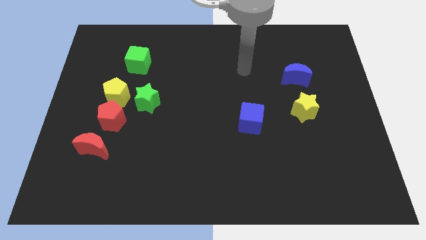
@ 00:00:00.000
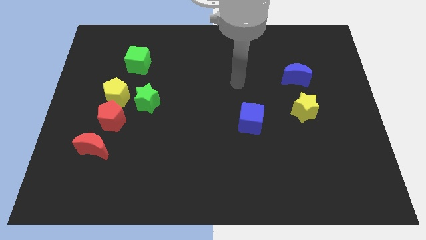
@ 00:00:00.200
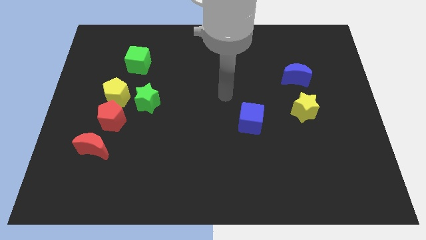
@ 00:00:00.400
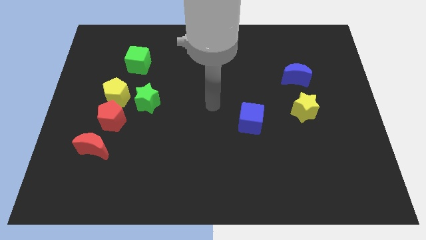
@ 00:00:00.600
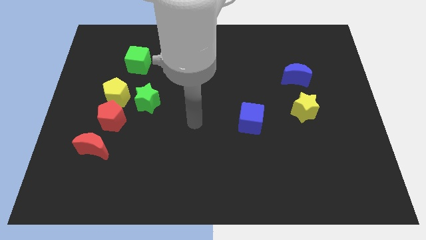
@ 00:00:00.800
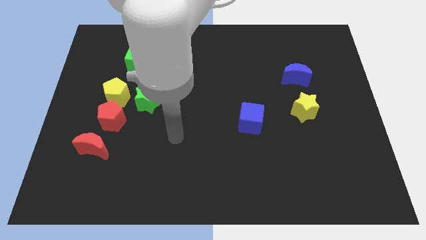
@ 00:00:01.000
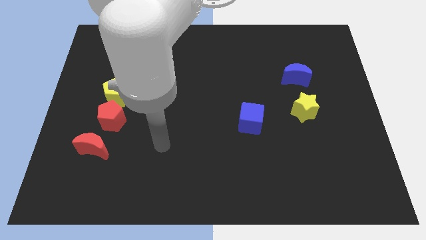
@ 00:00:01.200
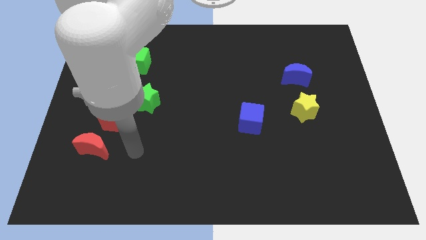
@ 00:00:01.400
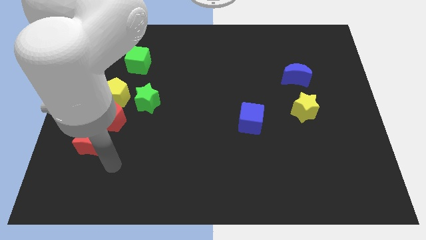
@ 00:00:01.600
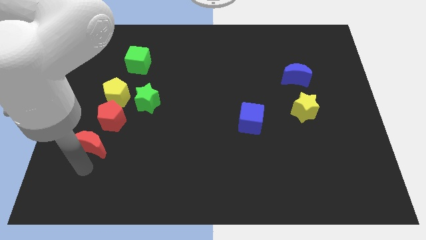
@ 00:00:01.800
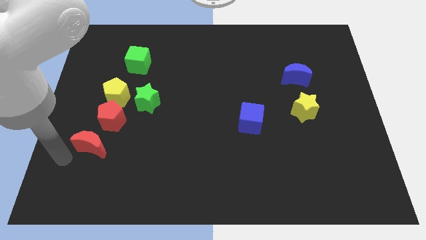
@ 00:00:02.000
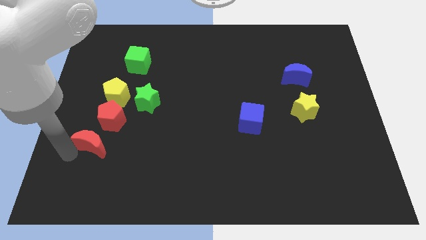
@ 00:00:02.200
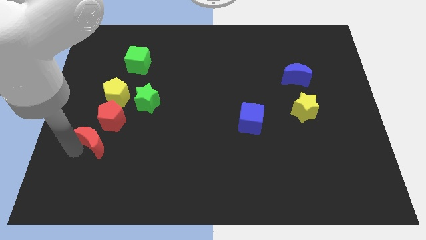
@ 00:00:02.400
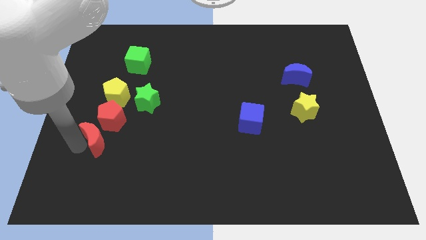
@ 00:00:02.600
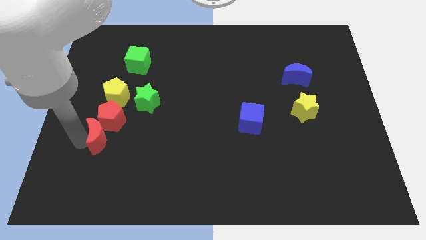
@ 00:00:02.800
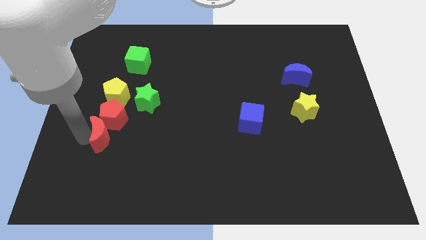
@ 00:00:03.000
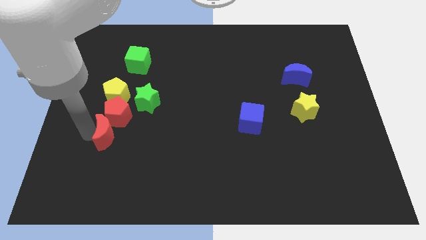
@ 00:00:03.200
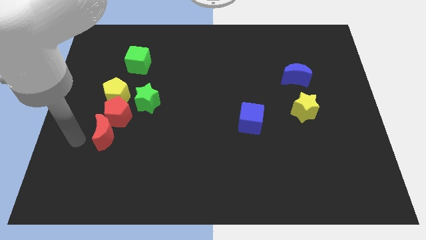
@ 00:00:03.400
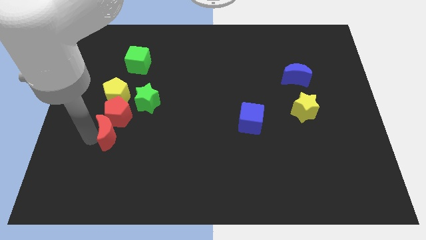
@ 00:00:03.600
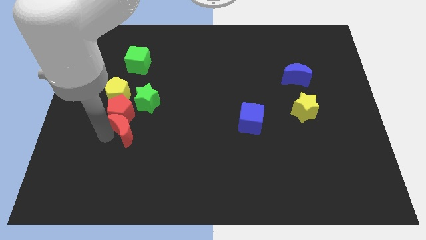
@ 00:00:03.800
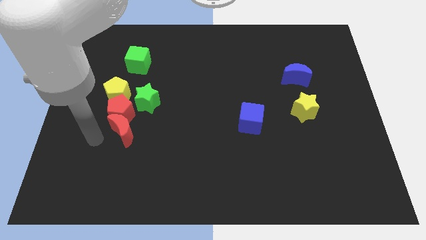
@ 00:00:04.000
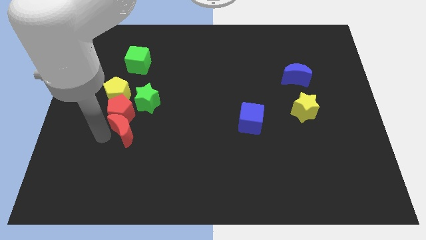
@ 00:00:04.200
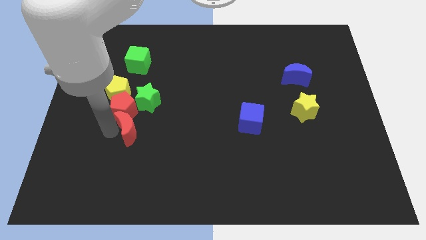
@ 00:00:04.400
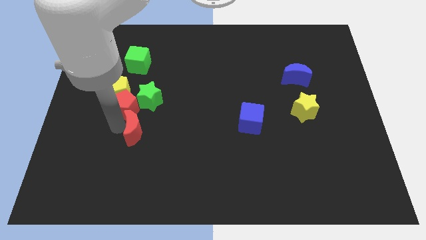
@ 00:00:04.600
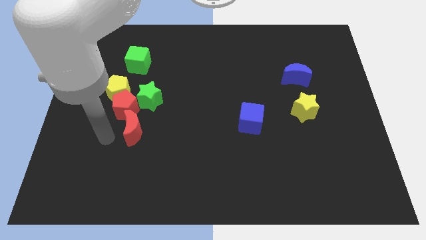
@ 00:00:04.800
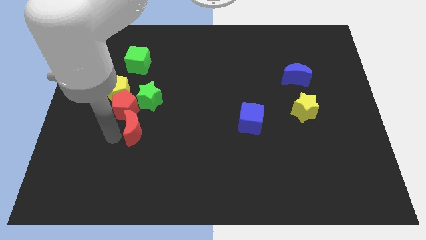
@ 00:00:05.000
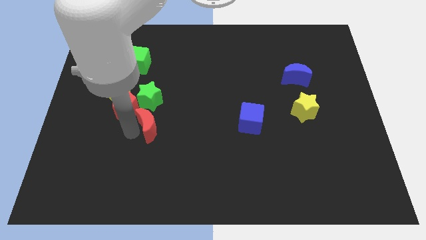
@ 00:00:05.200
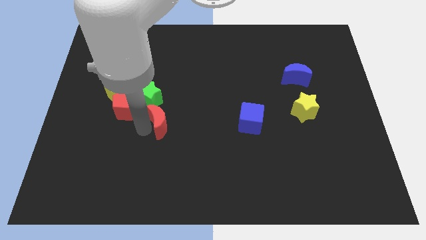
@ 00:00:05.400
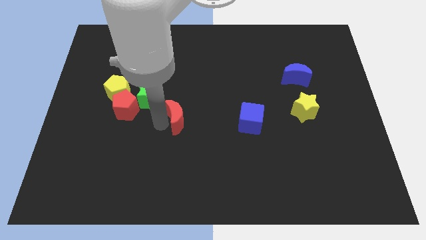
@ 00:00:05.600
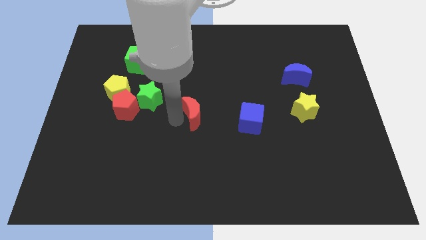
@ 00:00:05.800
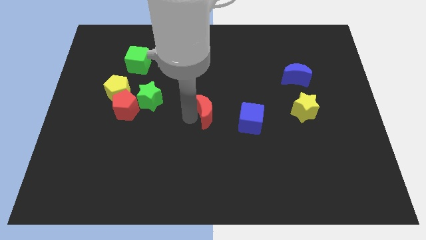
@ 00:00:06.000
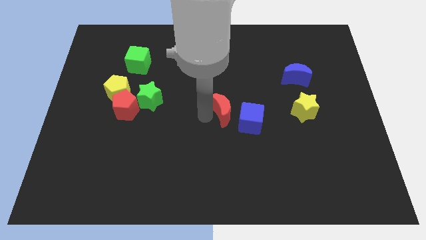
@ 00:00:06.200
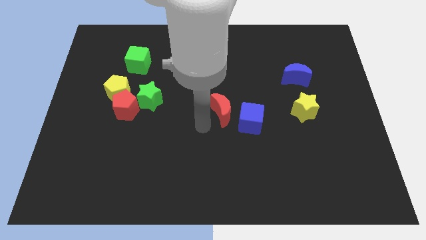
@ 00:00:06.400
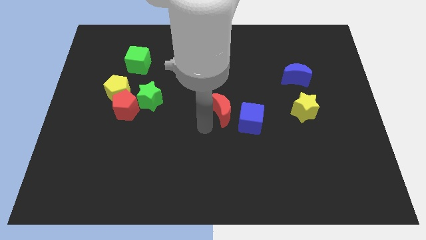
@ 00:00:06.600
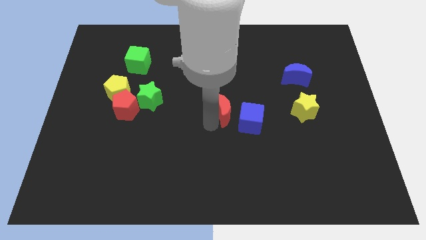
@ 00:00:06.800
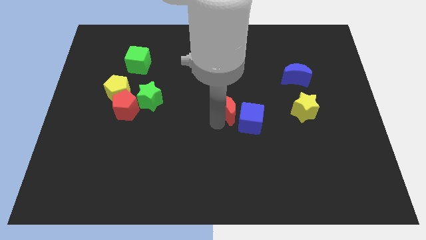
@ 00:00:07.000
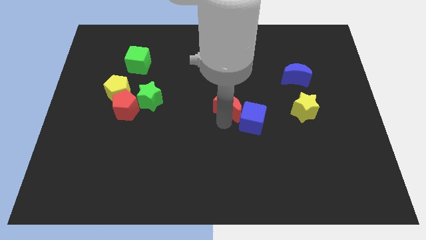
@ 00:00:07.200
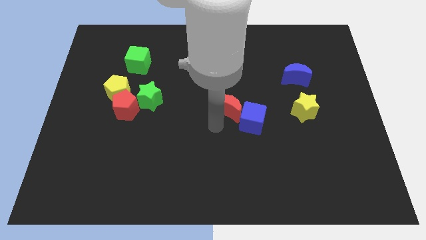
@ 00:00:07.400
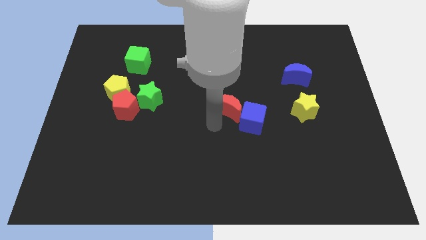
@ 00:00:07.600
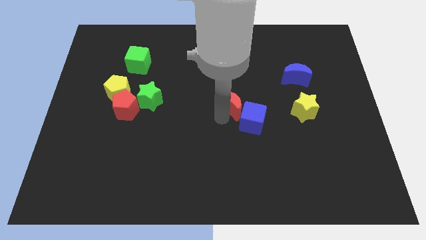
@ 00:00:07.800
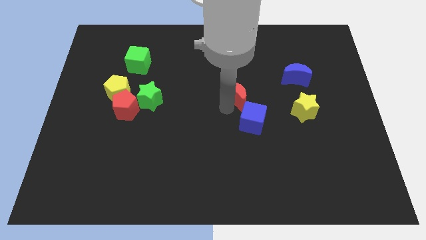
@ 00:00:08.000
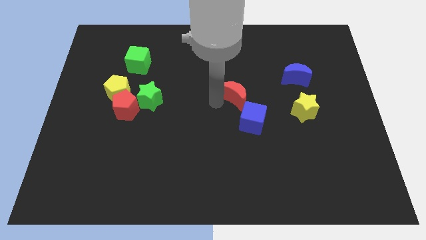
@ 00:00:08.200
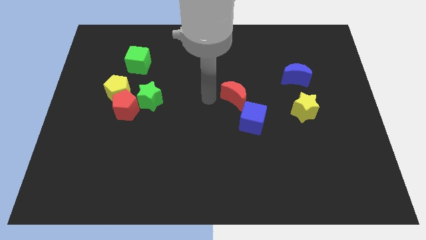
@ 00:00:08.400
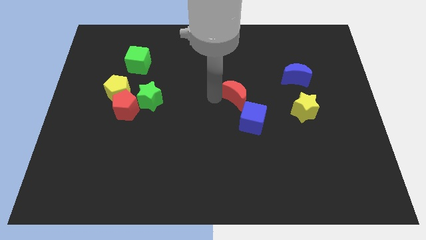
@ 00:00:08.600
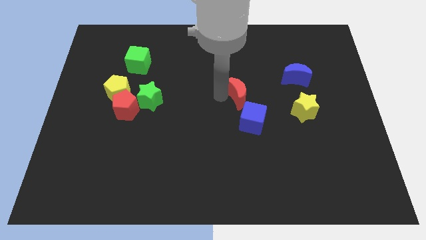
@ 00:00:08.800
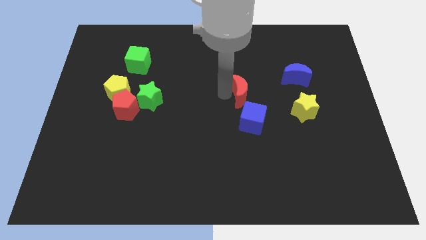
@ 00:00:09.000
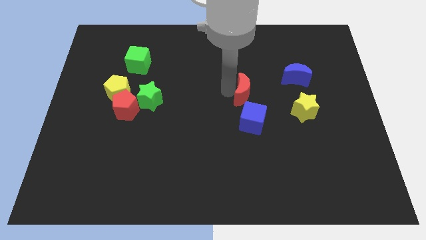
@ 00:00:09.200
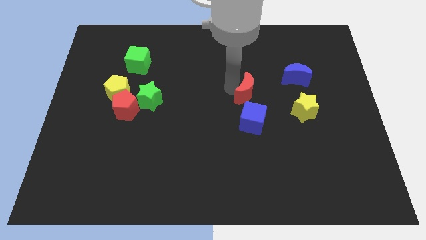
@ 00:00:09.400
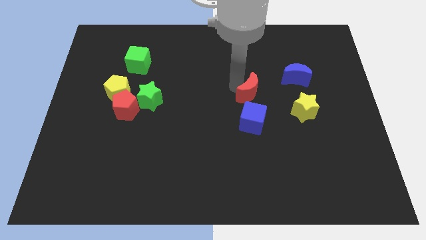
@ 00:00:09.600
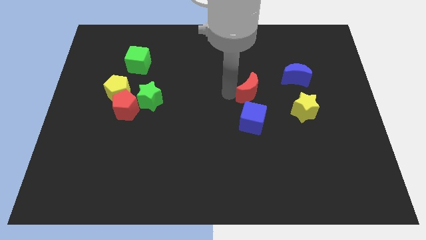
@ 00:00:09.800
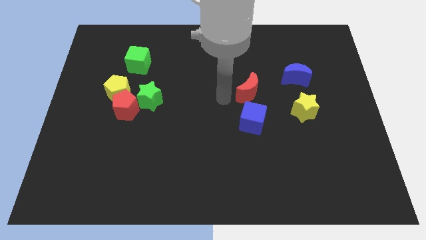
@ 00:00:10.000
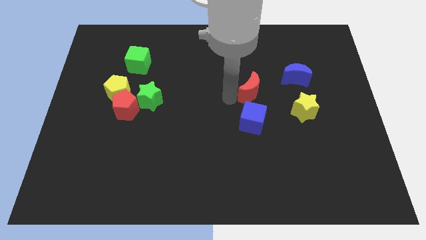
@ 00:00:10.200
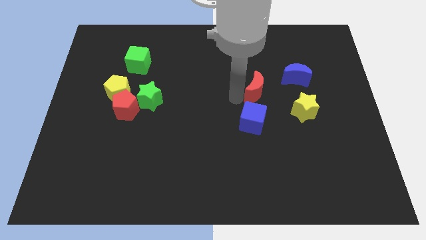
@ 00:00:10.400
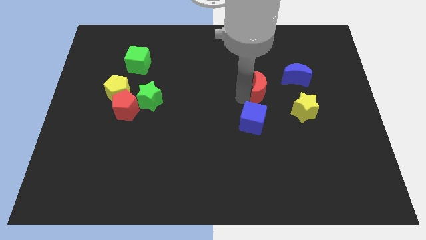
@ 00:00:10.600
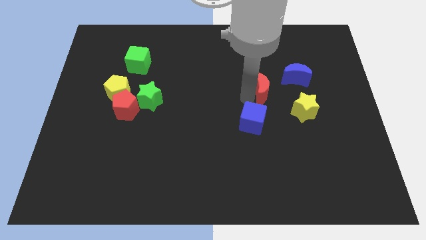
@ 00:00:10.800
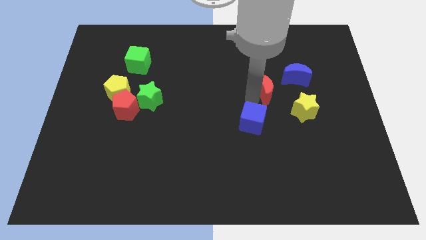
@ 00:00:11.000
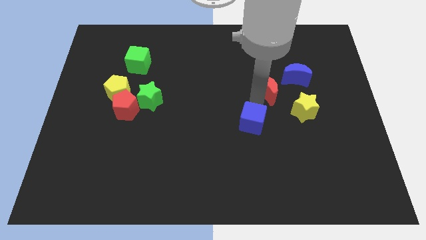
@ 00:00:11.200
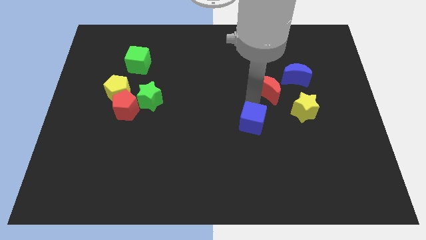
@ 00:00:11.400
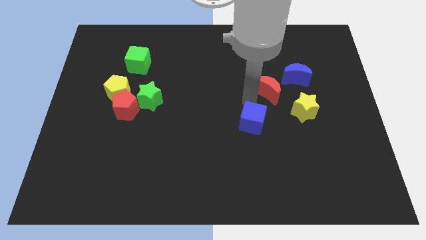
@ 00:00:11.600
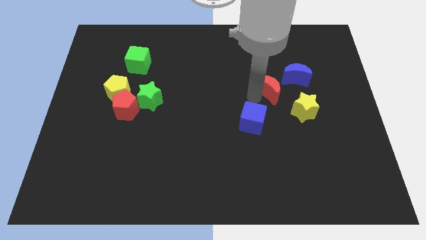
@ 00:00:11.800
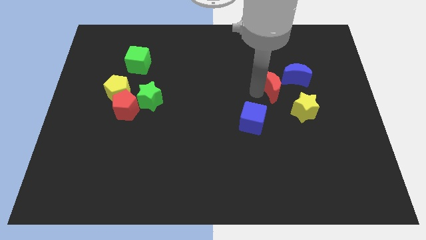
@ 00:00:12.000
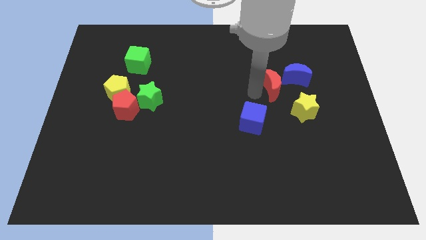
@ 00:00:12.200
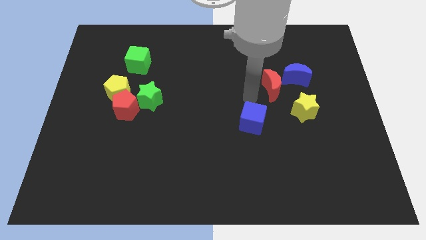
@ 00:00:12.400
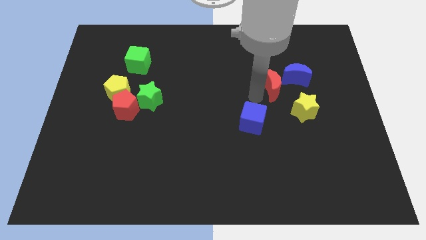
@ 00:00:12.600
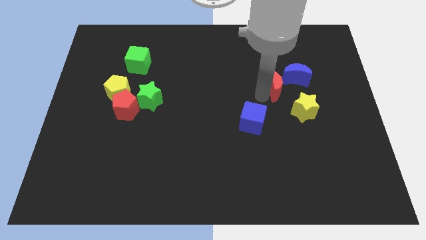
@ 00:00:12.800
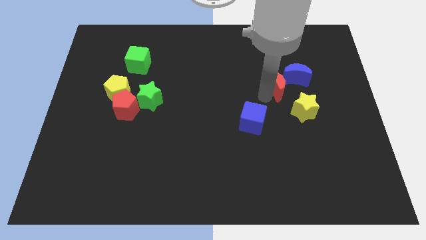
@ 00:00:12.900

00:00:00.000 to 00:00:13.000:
put the red moon close to the blue moon

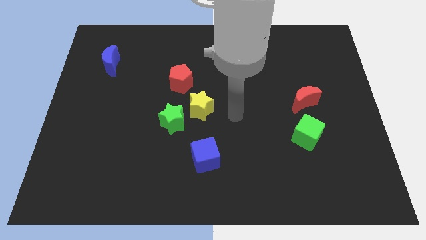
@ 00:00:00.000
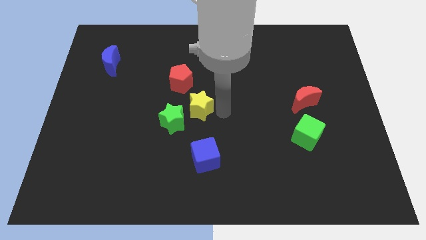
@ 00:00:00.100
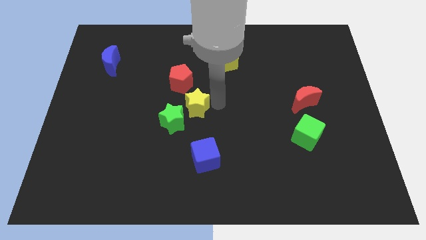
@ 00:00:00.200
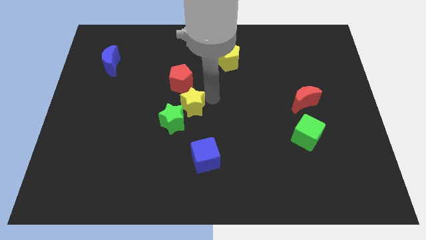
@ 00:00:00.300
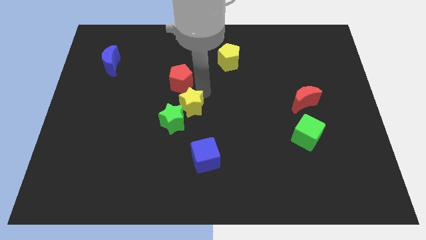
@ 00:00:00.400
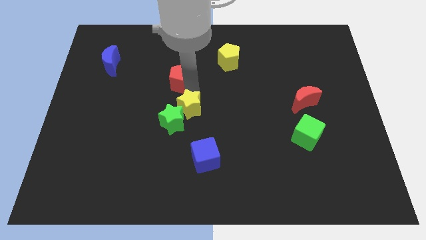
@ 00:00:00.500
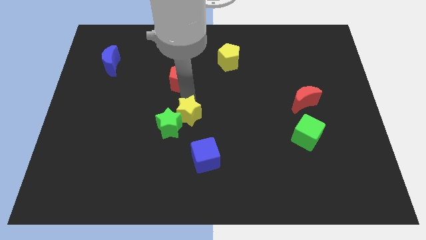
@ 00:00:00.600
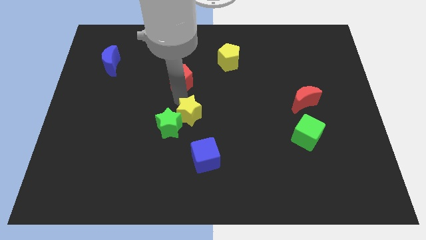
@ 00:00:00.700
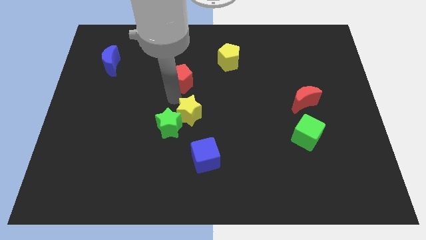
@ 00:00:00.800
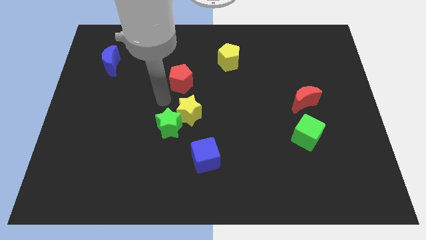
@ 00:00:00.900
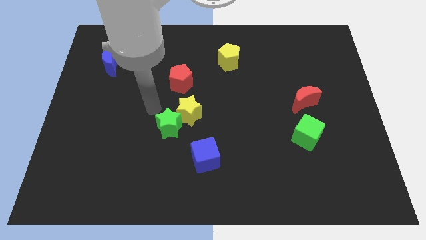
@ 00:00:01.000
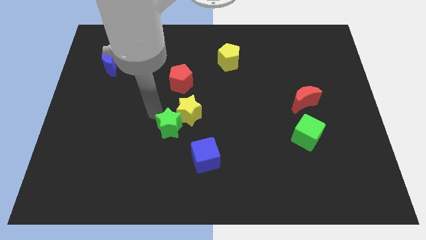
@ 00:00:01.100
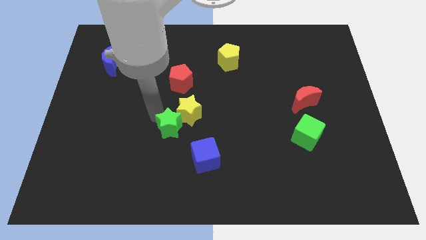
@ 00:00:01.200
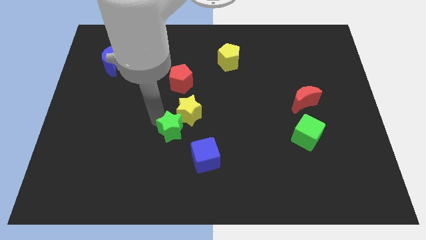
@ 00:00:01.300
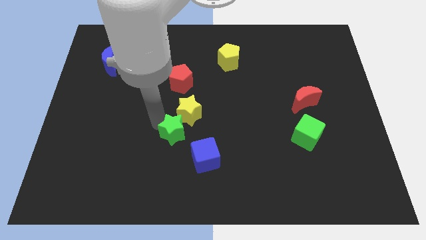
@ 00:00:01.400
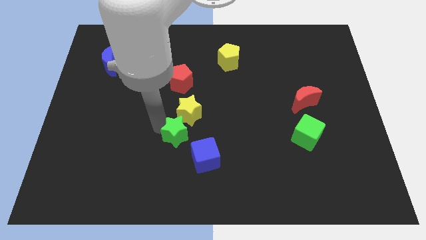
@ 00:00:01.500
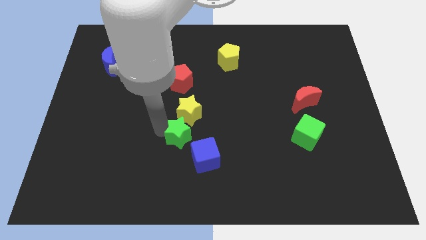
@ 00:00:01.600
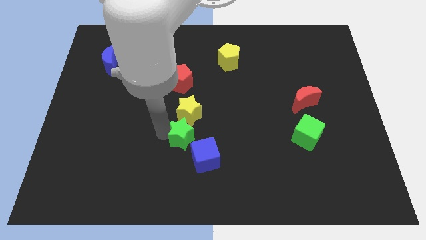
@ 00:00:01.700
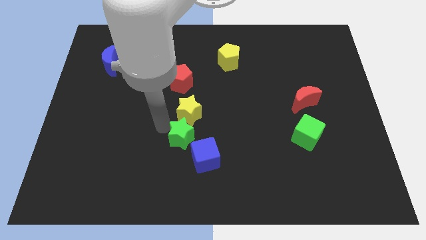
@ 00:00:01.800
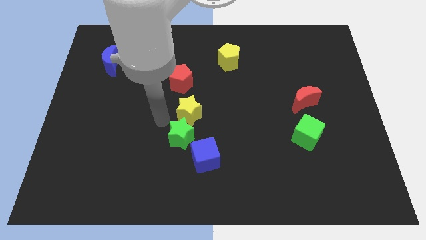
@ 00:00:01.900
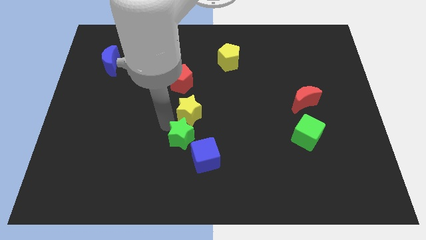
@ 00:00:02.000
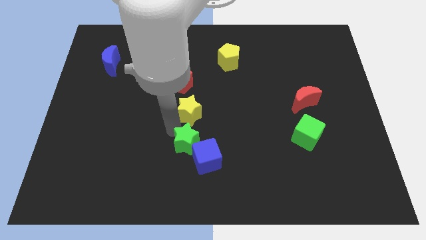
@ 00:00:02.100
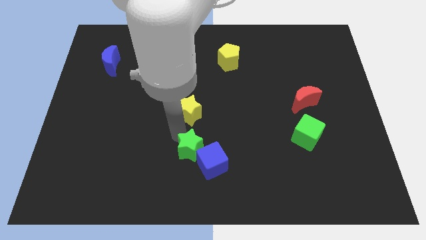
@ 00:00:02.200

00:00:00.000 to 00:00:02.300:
push the green star towards the blue cube
